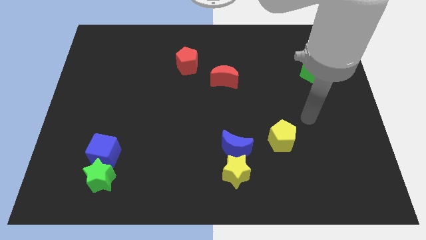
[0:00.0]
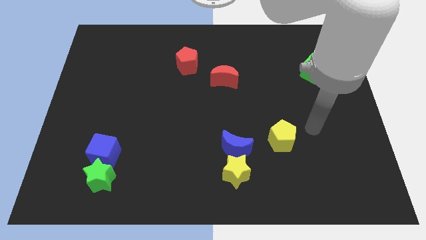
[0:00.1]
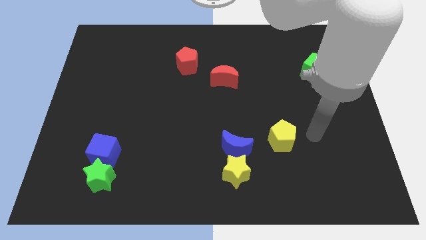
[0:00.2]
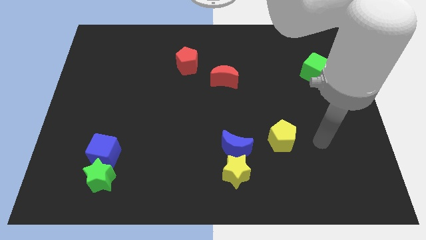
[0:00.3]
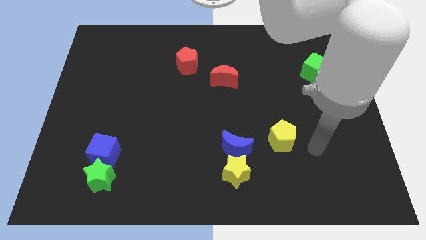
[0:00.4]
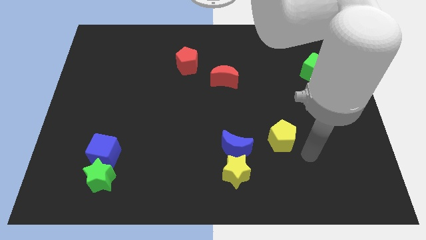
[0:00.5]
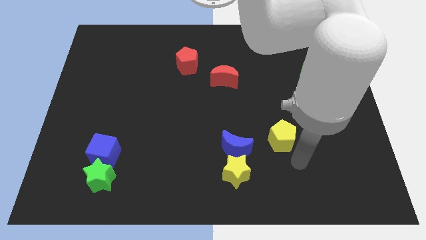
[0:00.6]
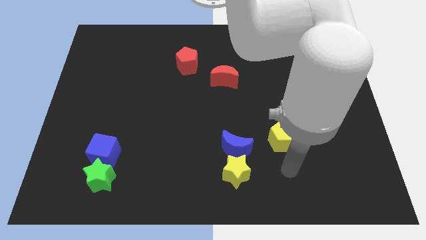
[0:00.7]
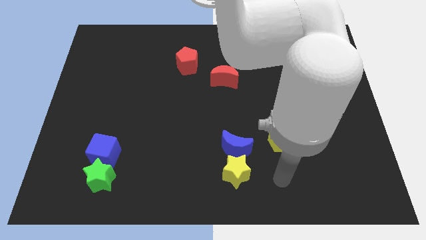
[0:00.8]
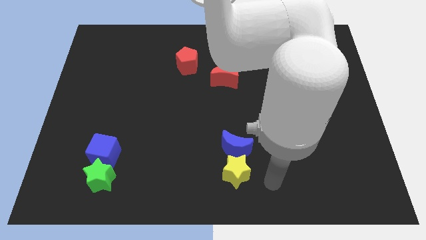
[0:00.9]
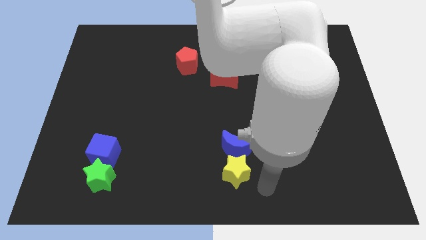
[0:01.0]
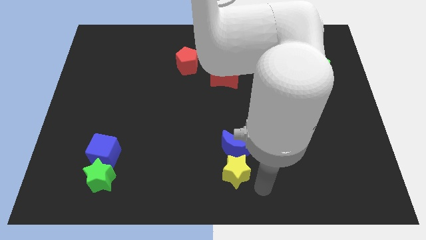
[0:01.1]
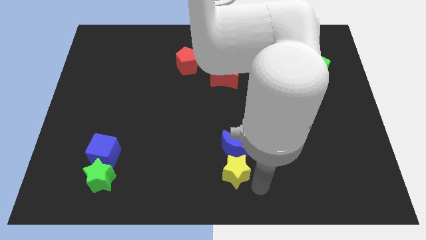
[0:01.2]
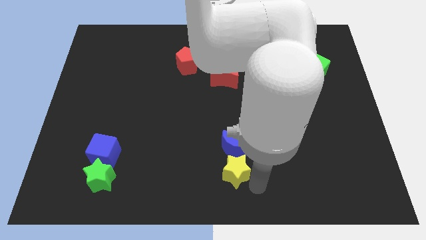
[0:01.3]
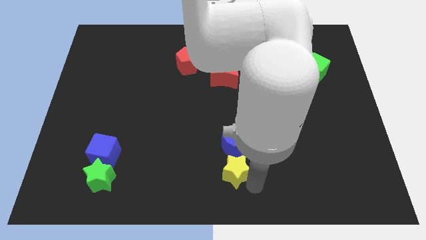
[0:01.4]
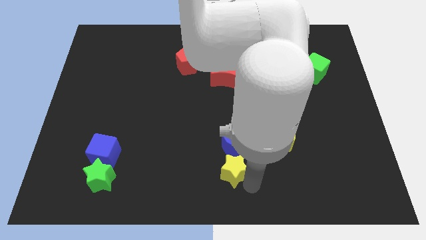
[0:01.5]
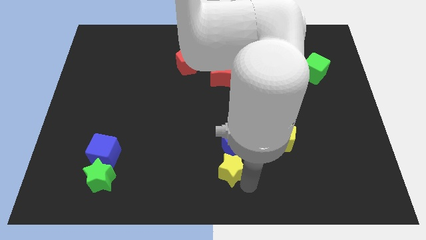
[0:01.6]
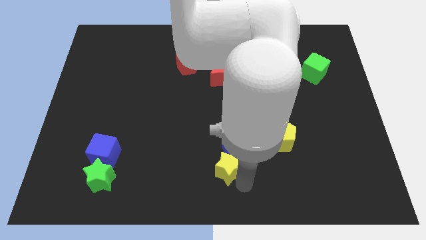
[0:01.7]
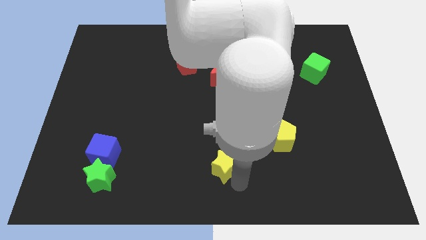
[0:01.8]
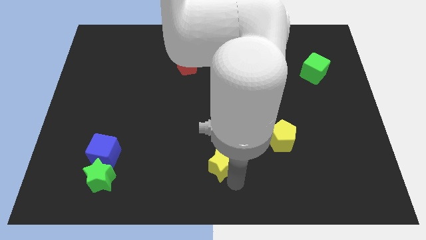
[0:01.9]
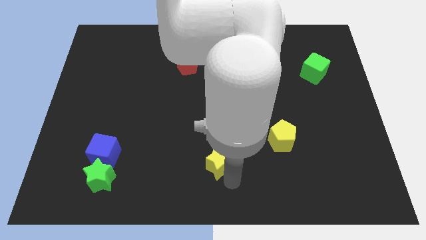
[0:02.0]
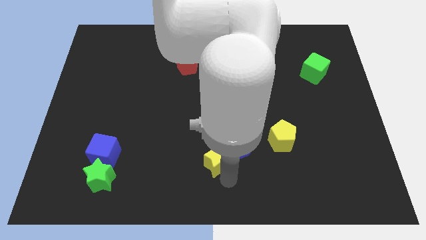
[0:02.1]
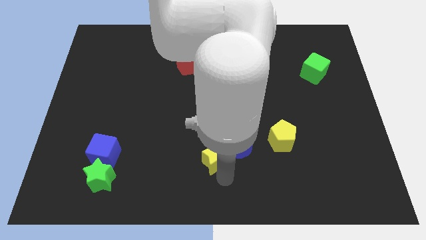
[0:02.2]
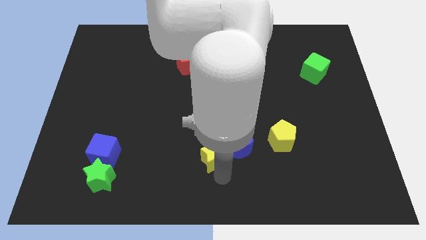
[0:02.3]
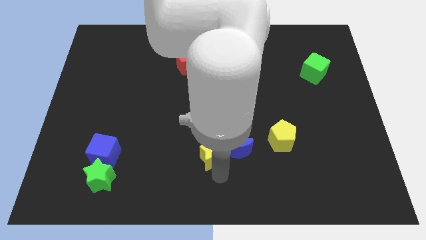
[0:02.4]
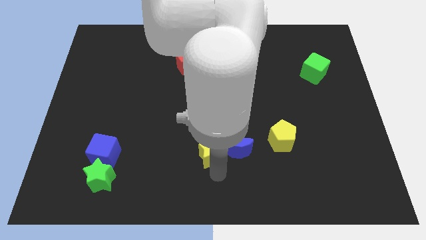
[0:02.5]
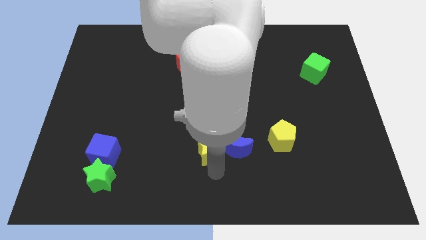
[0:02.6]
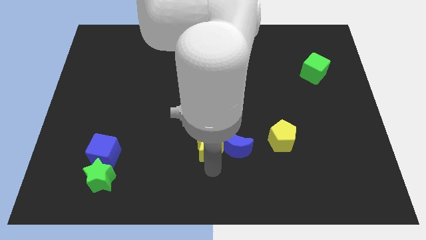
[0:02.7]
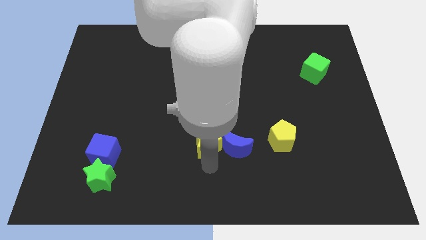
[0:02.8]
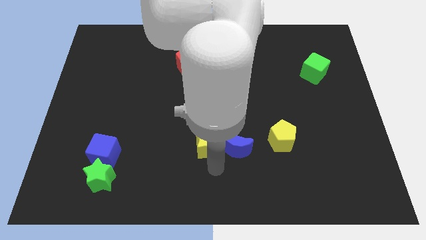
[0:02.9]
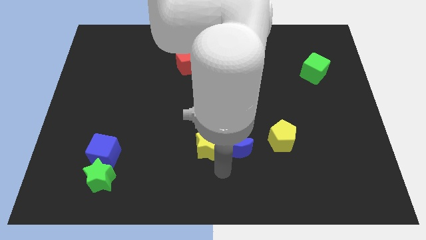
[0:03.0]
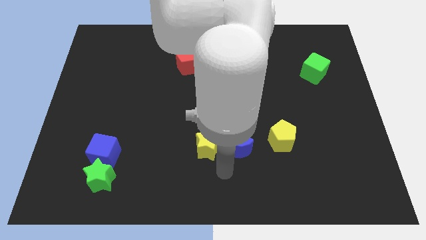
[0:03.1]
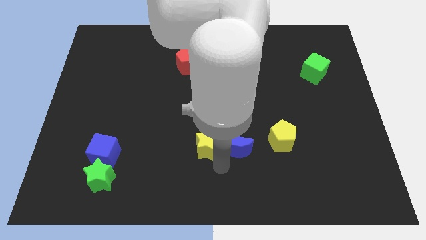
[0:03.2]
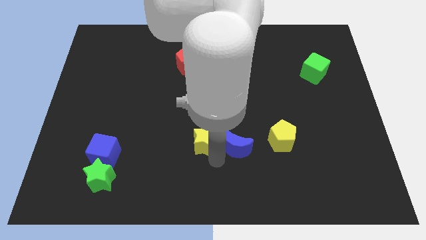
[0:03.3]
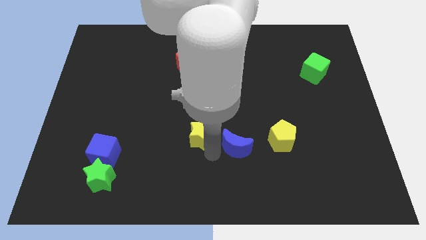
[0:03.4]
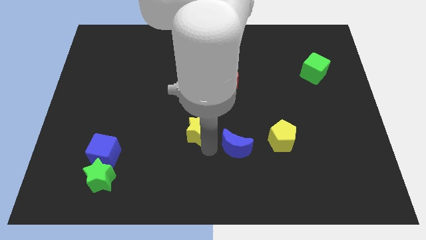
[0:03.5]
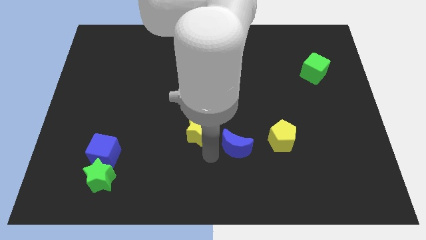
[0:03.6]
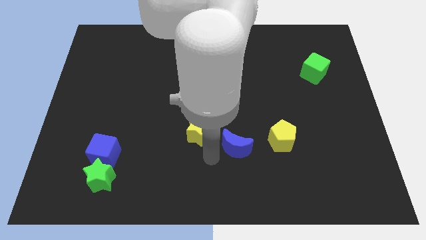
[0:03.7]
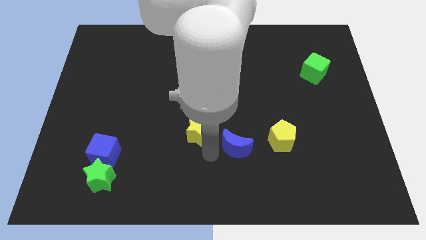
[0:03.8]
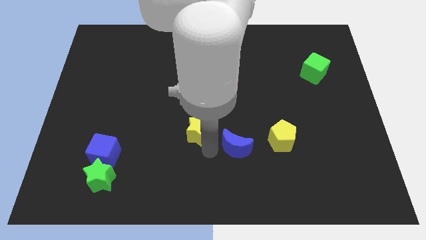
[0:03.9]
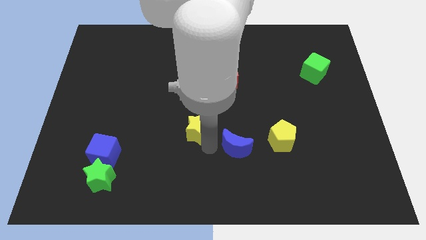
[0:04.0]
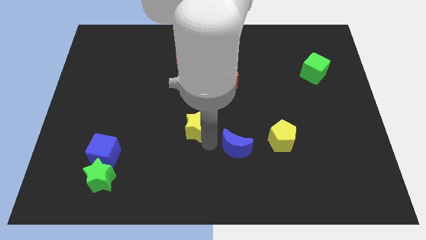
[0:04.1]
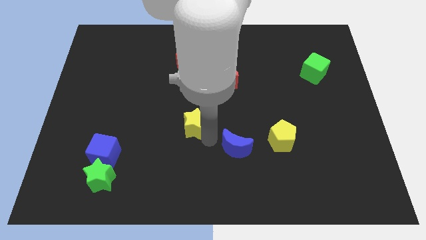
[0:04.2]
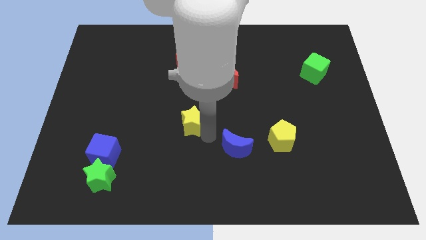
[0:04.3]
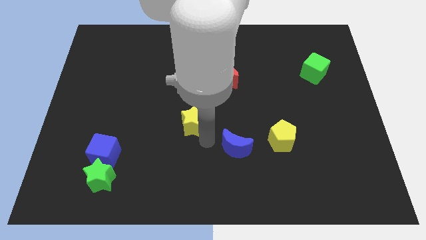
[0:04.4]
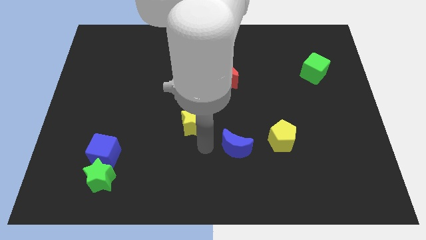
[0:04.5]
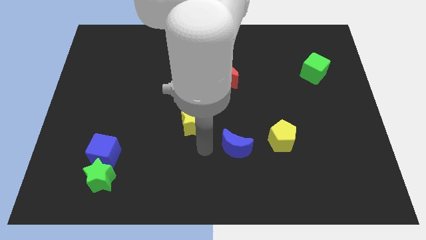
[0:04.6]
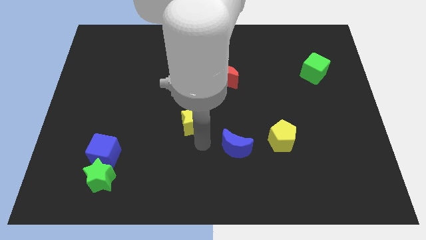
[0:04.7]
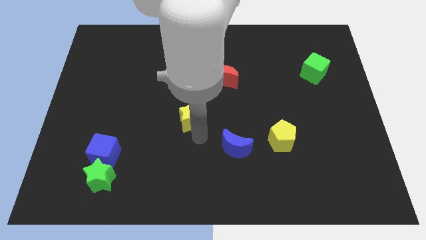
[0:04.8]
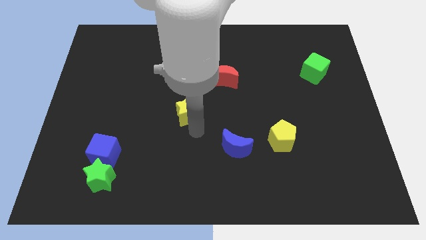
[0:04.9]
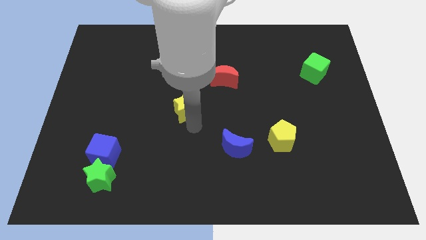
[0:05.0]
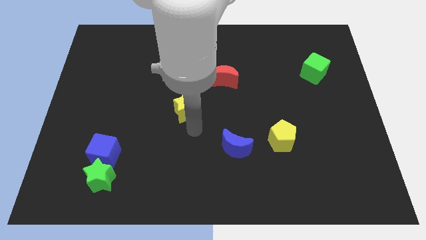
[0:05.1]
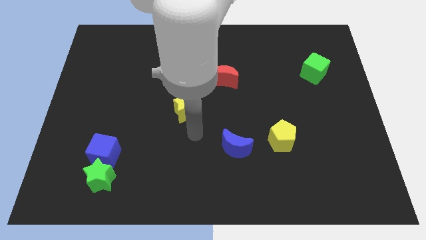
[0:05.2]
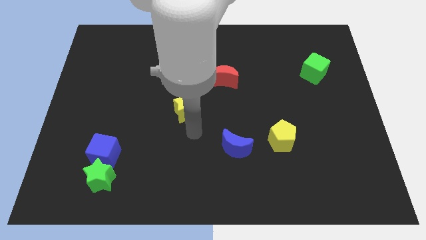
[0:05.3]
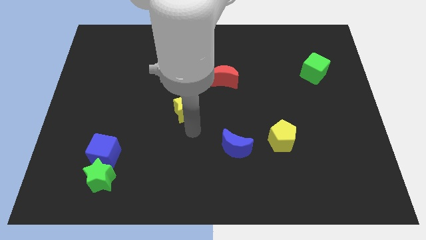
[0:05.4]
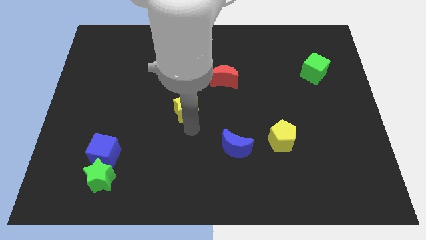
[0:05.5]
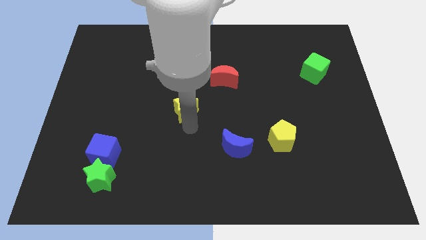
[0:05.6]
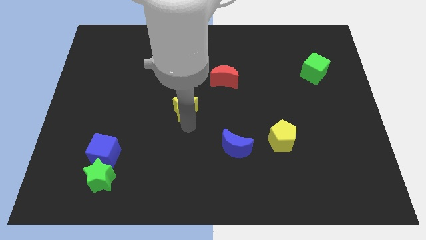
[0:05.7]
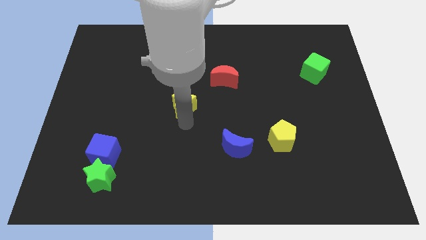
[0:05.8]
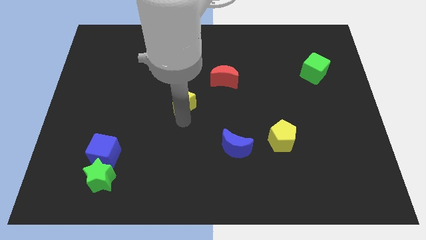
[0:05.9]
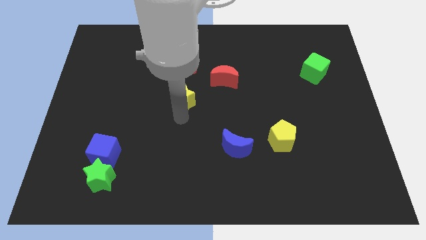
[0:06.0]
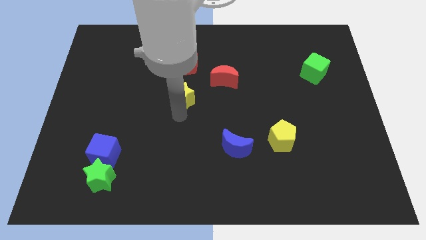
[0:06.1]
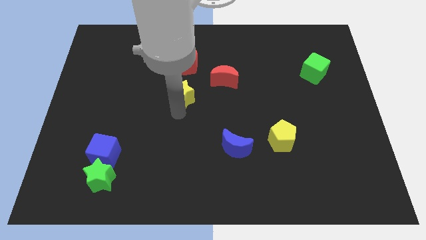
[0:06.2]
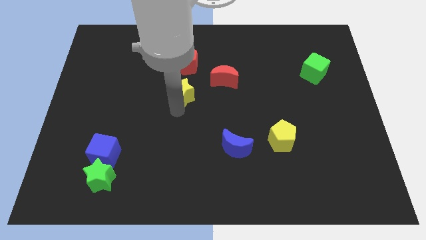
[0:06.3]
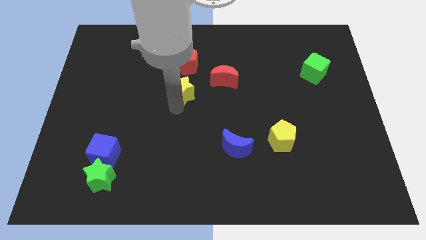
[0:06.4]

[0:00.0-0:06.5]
put the yellow star left of the red moon
